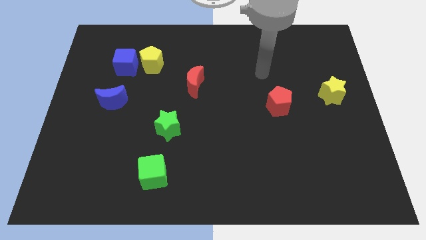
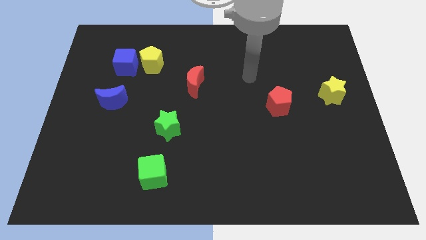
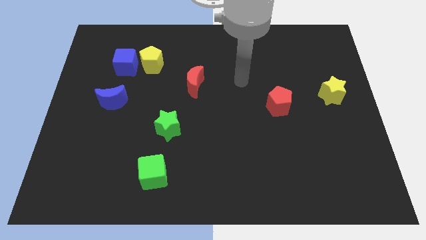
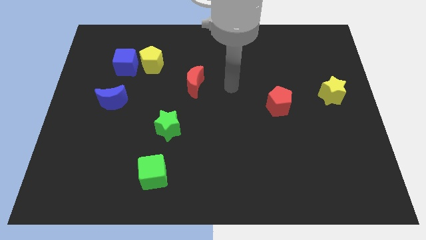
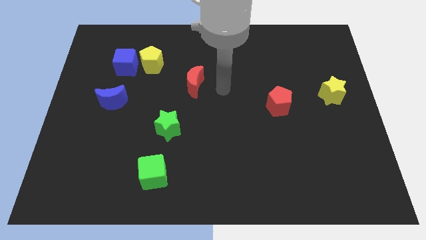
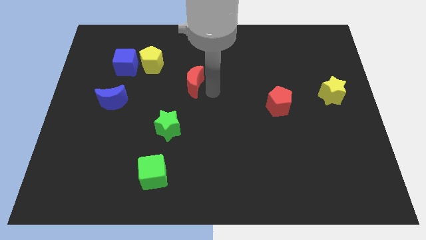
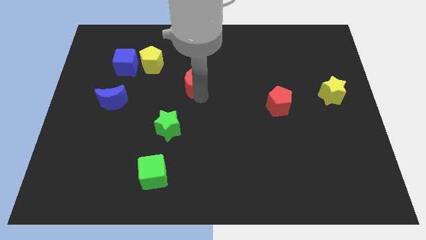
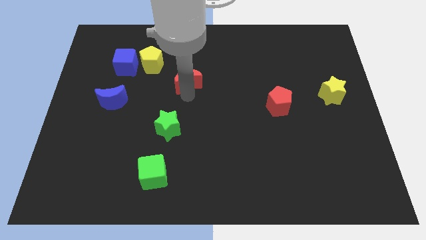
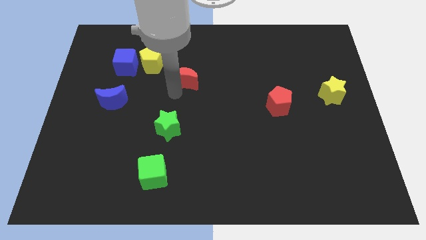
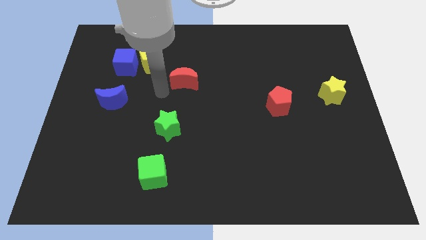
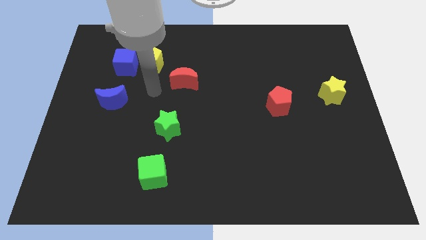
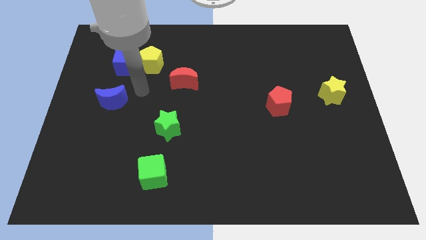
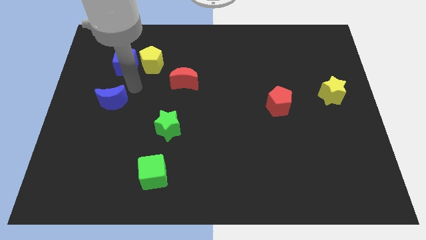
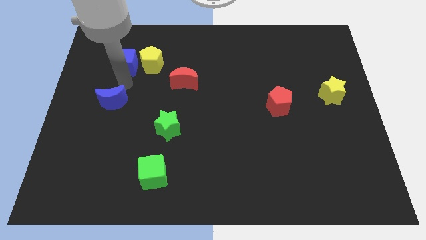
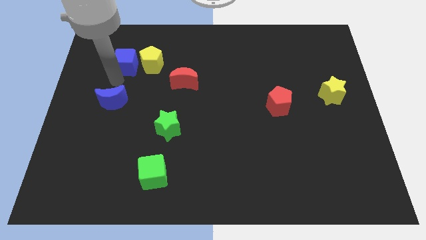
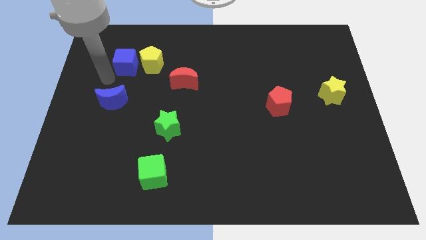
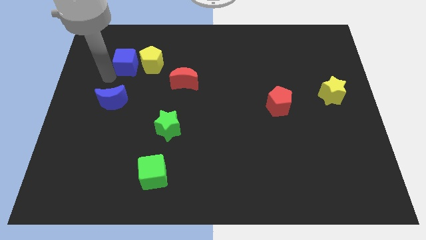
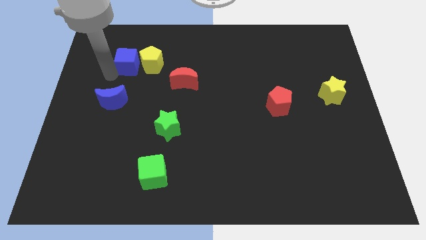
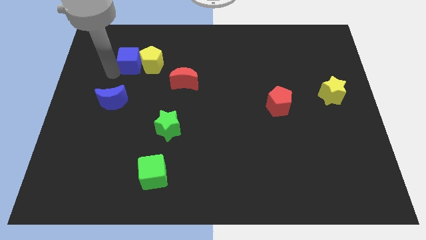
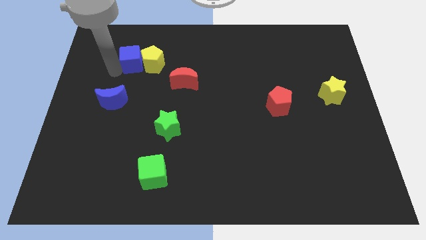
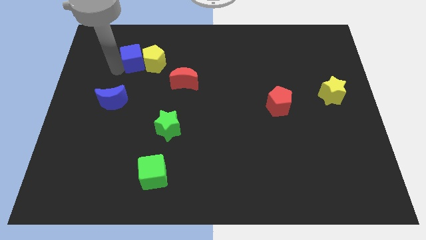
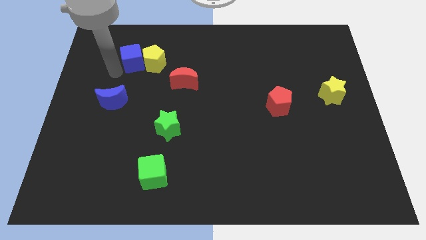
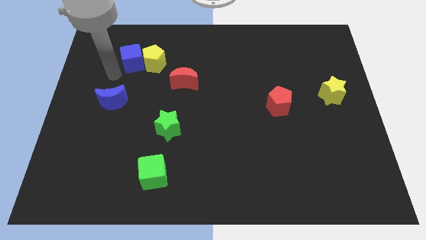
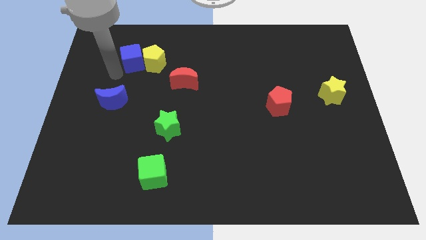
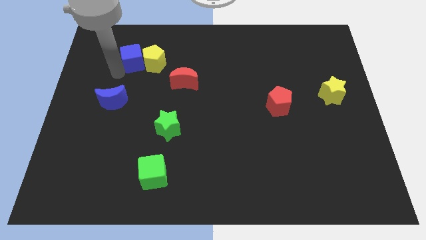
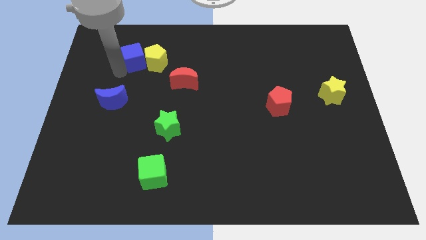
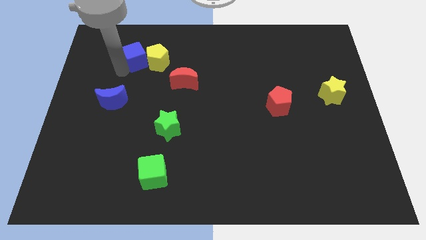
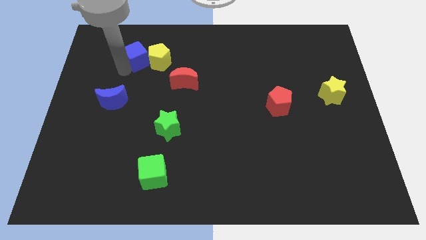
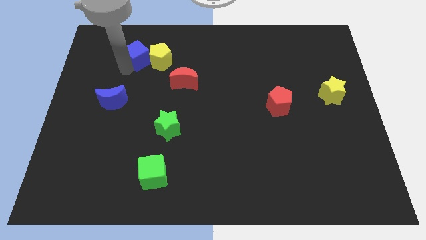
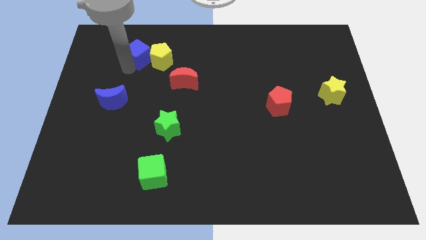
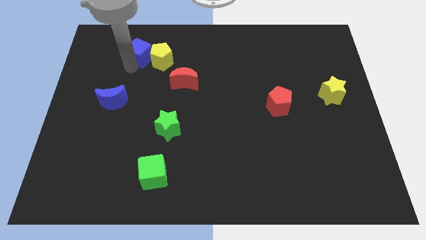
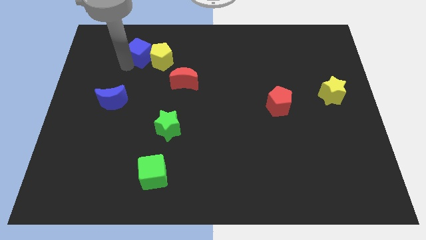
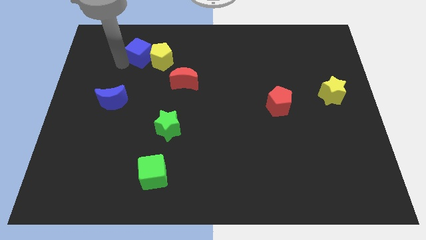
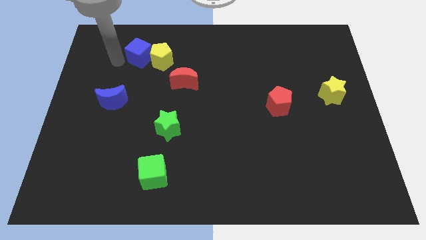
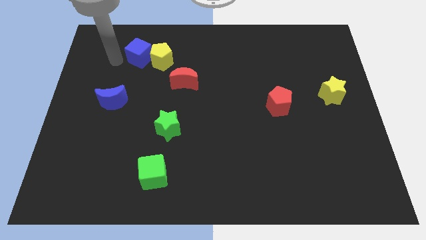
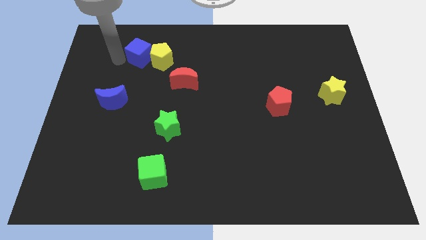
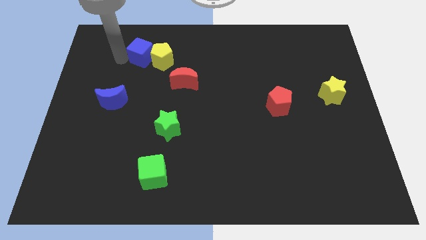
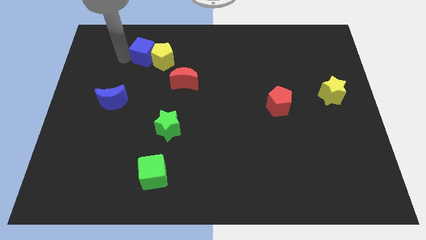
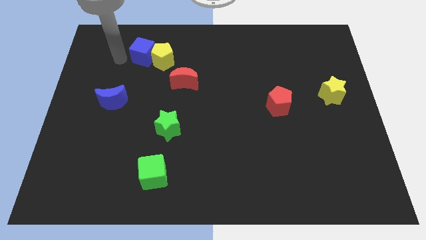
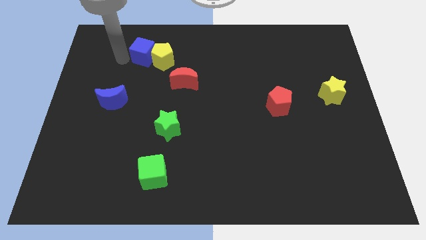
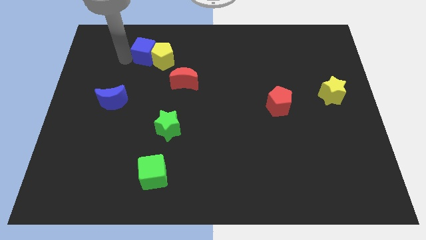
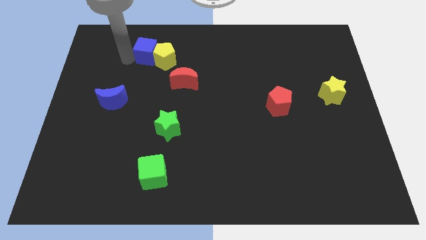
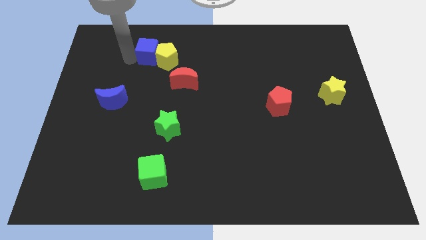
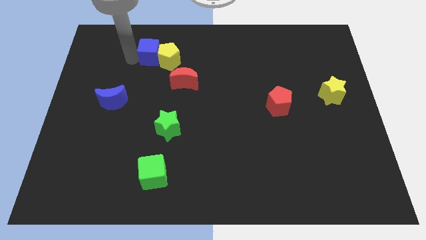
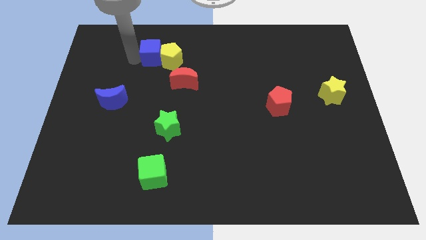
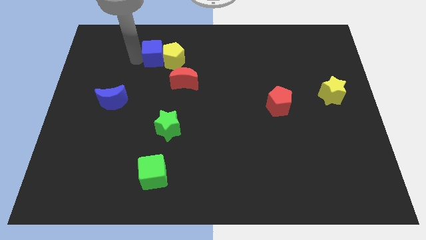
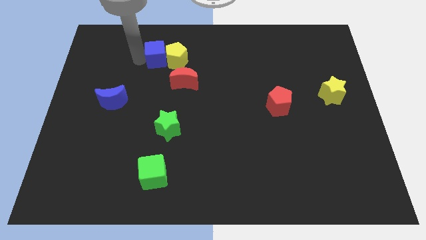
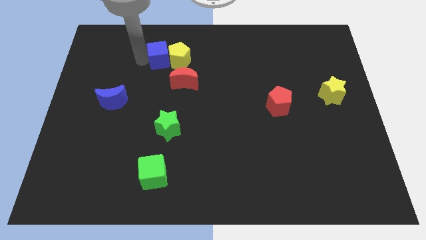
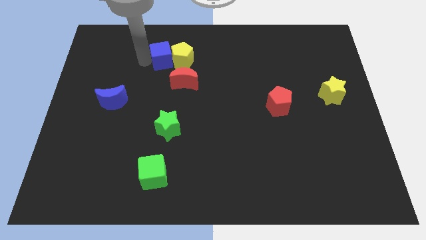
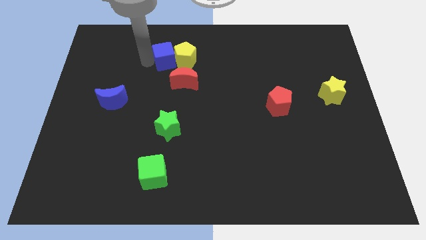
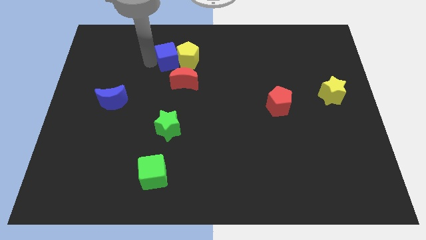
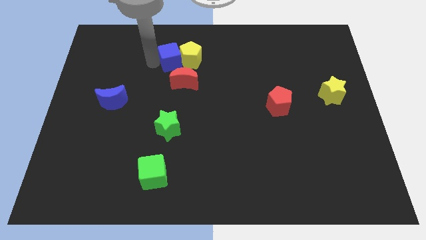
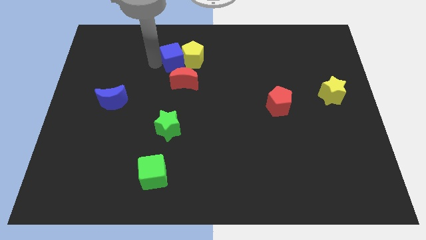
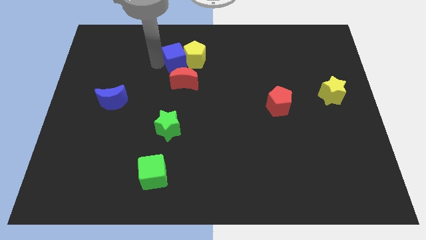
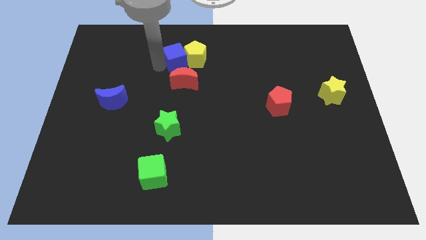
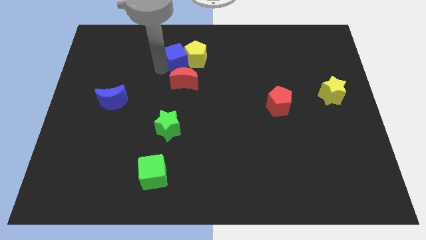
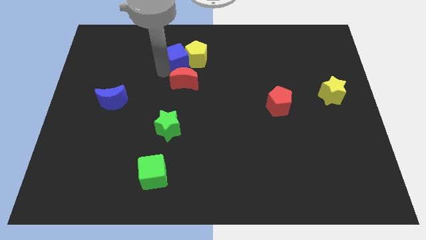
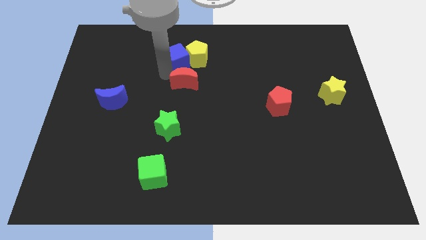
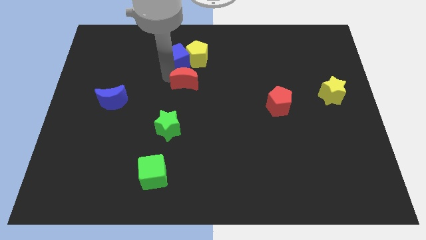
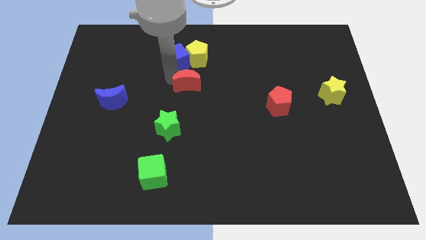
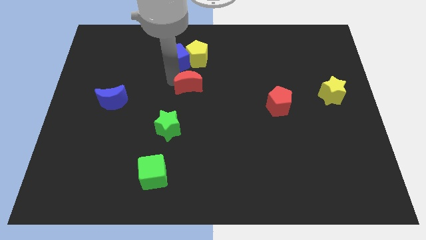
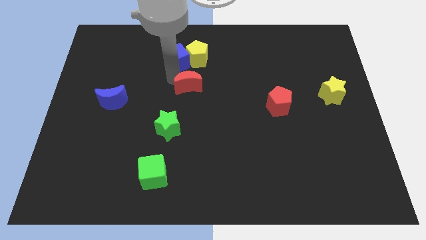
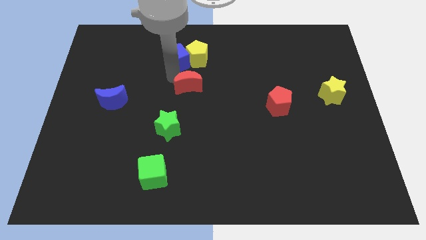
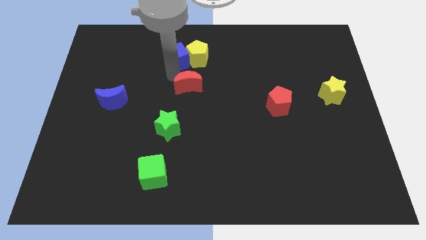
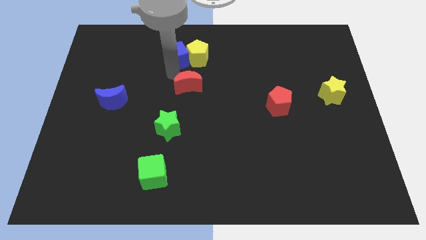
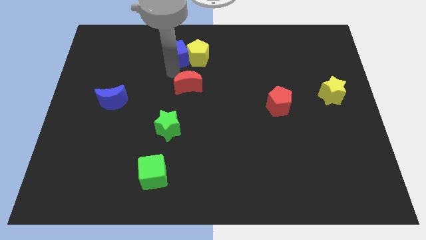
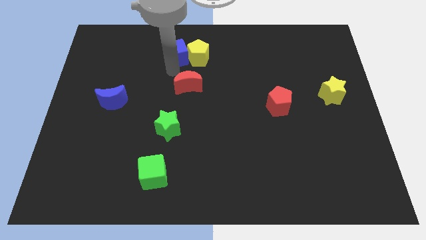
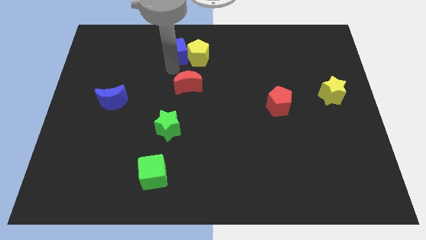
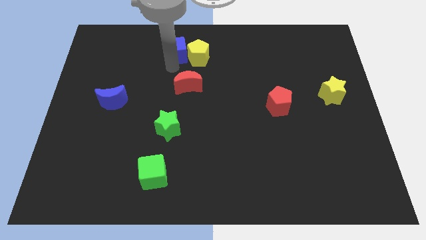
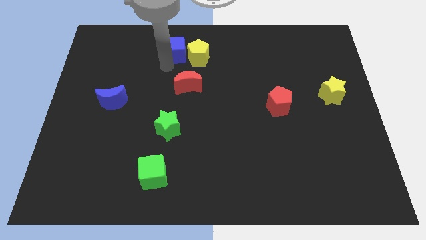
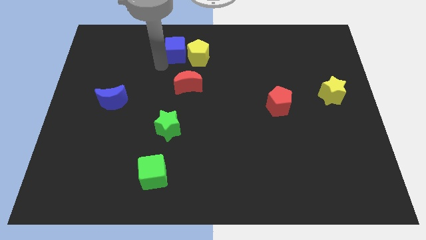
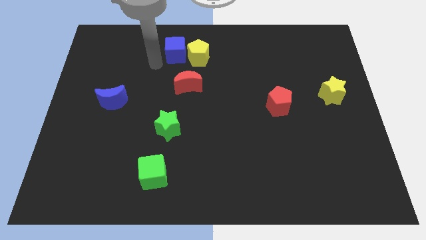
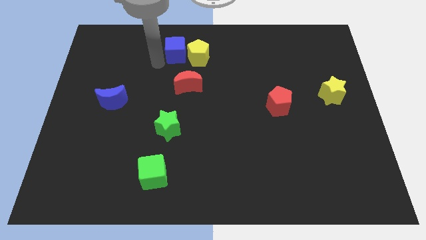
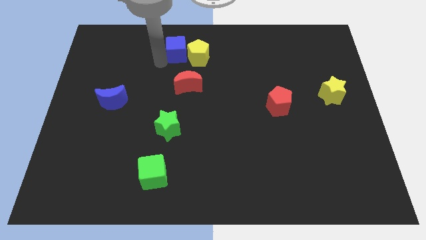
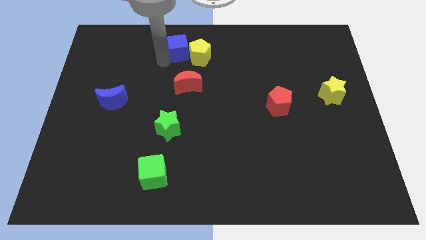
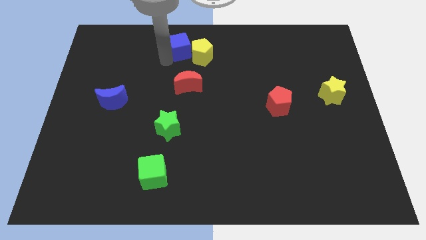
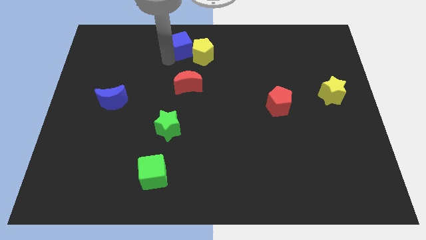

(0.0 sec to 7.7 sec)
slide the blue cube to the towards your base
